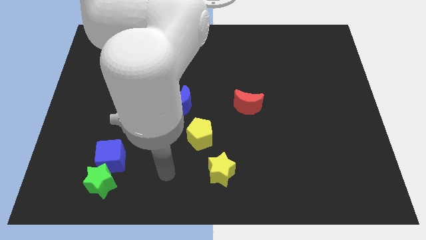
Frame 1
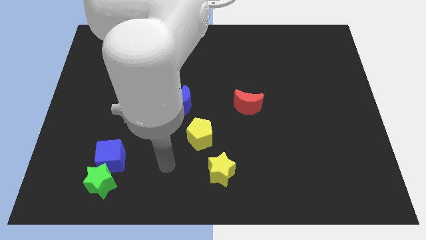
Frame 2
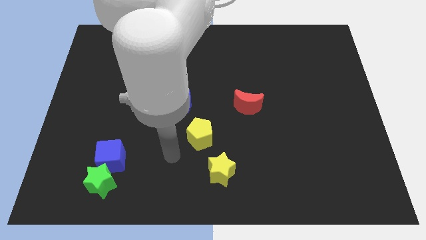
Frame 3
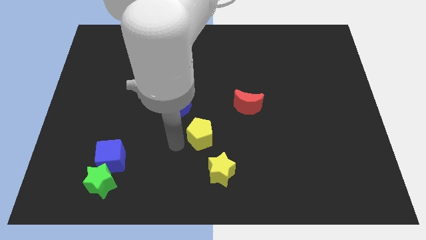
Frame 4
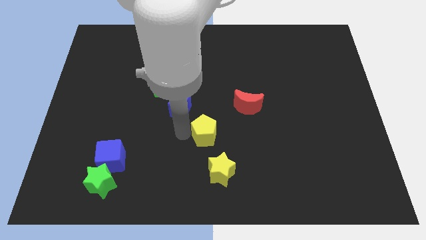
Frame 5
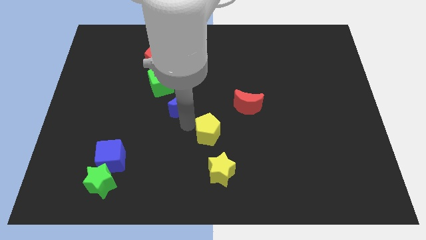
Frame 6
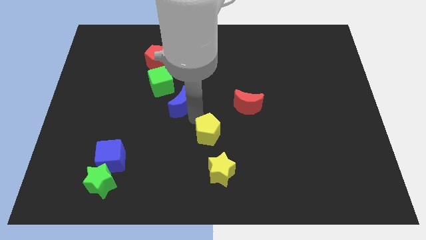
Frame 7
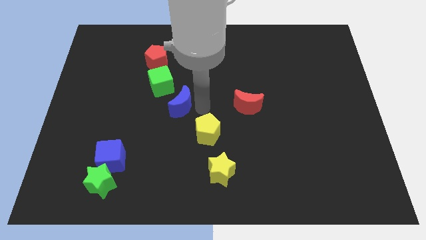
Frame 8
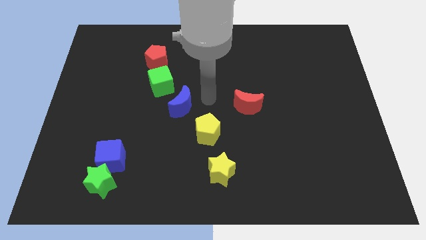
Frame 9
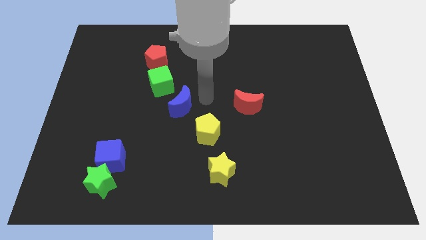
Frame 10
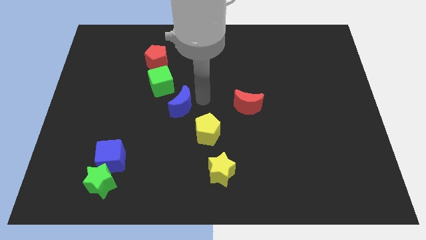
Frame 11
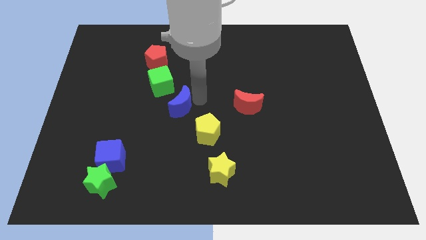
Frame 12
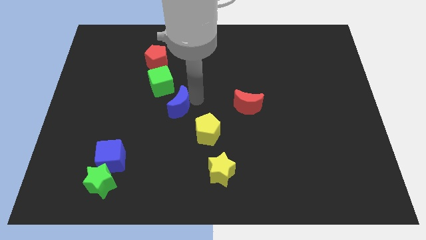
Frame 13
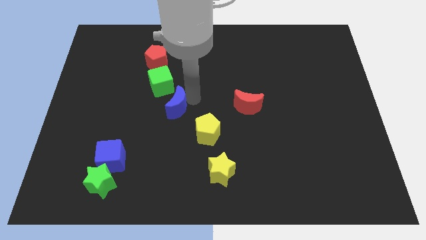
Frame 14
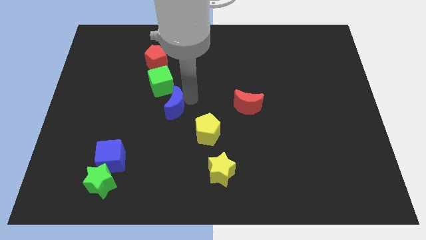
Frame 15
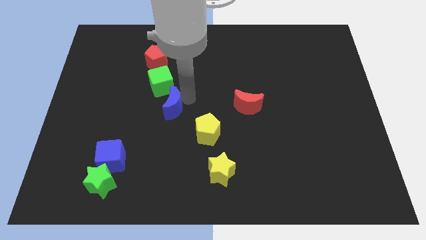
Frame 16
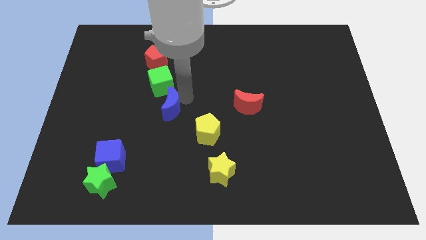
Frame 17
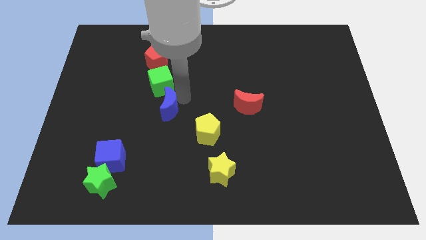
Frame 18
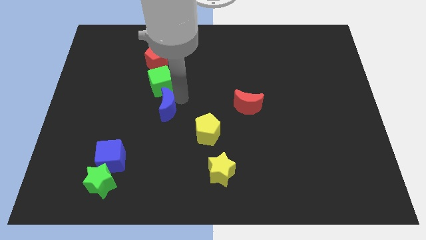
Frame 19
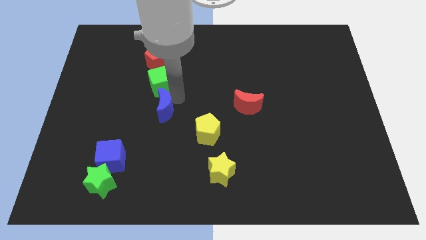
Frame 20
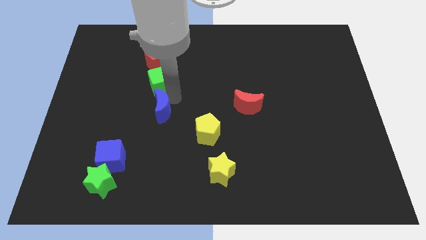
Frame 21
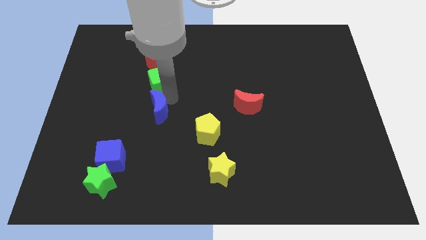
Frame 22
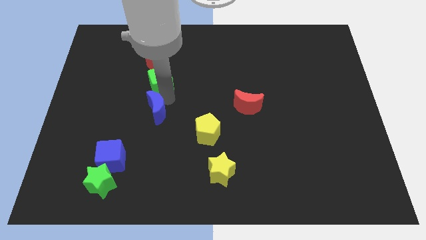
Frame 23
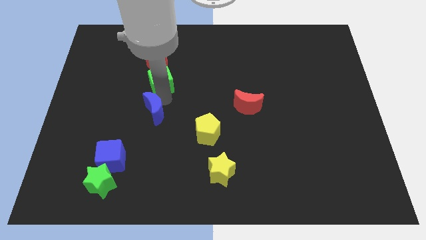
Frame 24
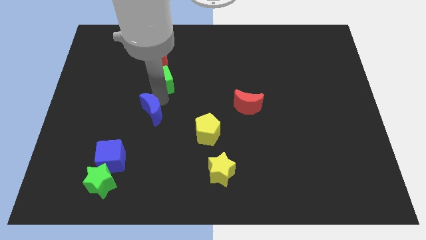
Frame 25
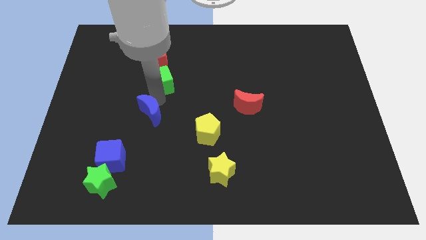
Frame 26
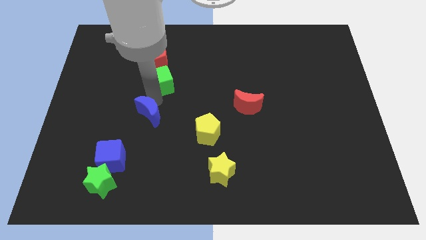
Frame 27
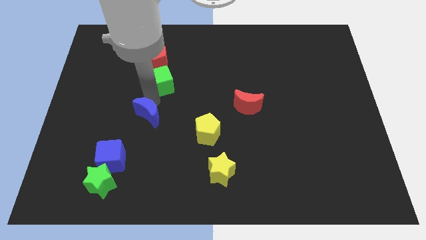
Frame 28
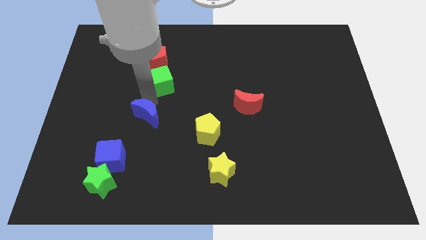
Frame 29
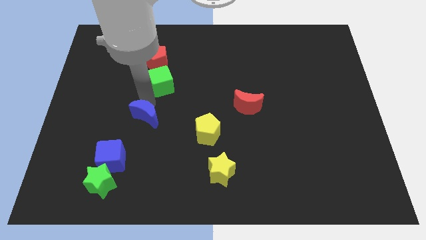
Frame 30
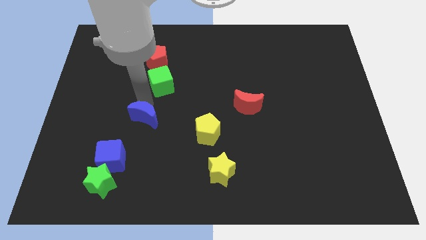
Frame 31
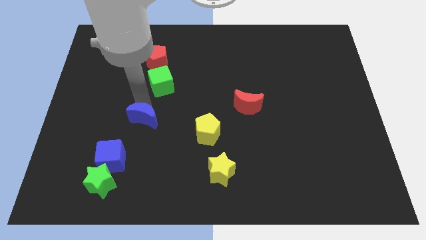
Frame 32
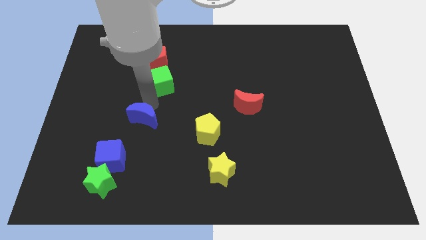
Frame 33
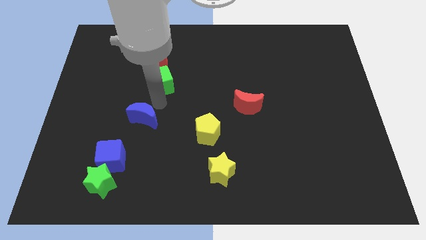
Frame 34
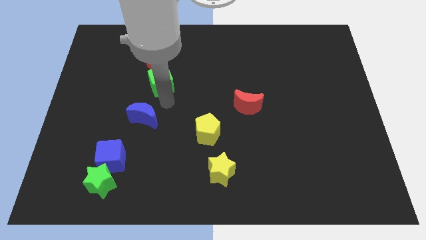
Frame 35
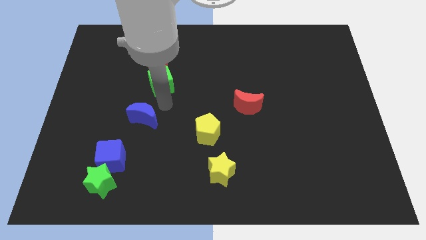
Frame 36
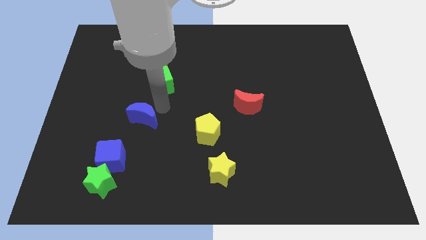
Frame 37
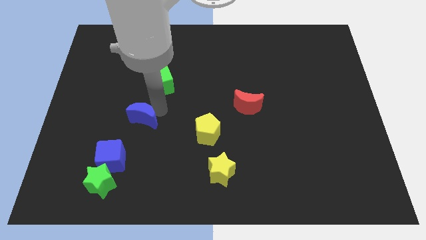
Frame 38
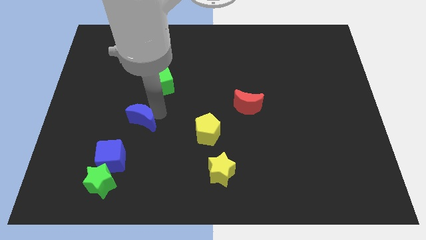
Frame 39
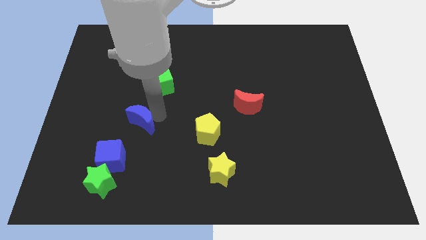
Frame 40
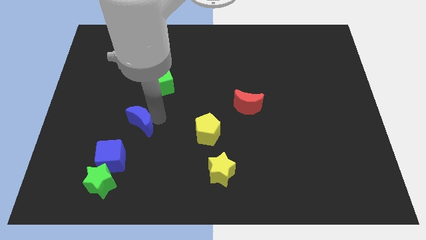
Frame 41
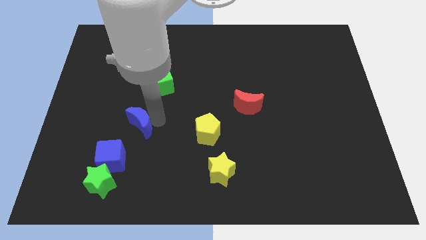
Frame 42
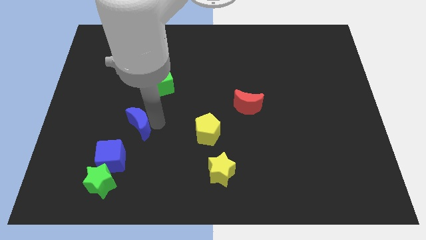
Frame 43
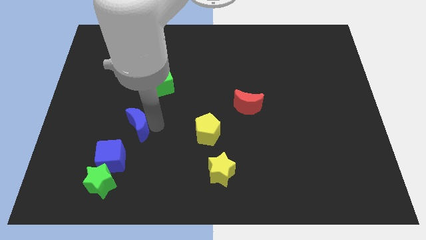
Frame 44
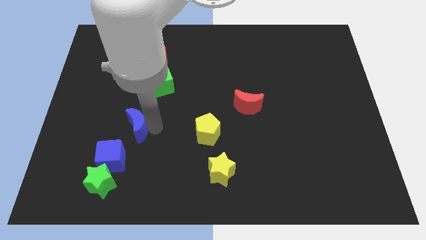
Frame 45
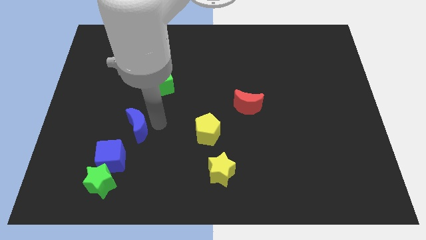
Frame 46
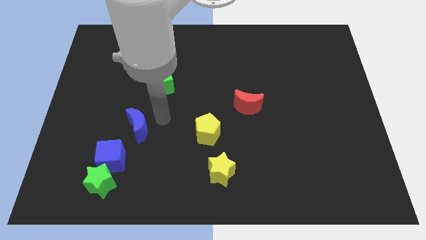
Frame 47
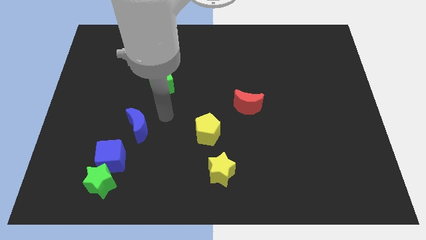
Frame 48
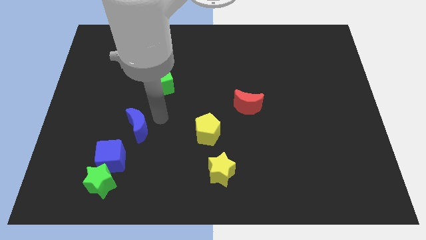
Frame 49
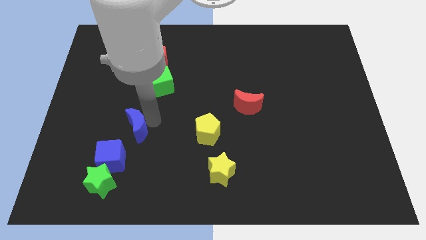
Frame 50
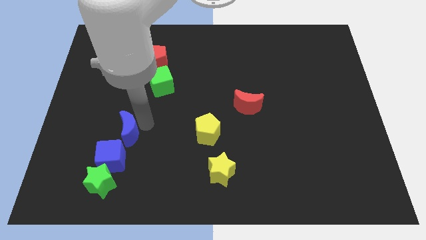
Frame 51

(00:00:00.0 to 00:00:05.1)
move the blue moon above the green star

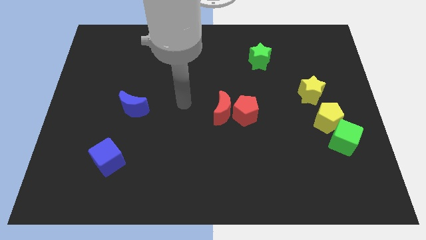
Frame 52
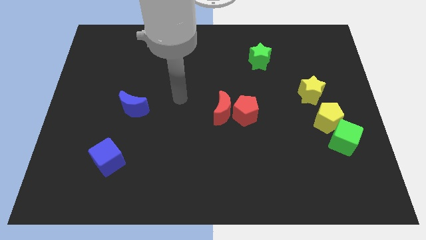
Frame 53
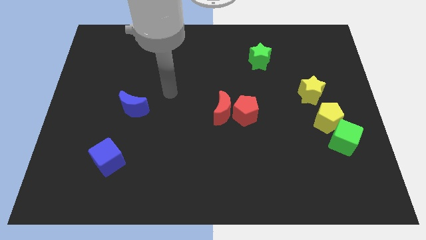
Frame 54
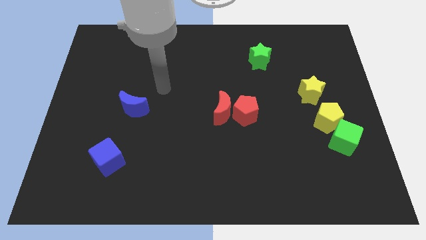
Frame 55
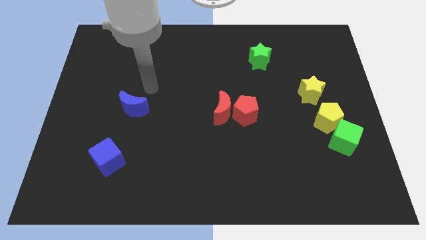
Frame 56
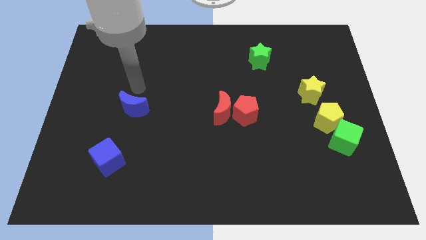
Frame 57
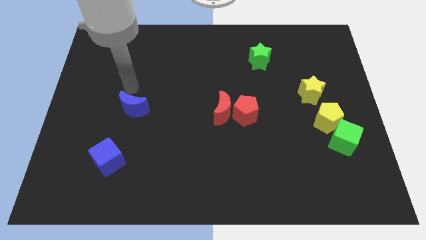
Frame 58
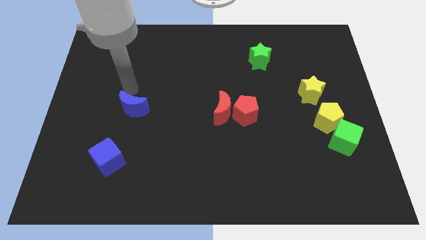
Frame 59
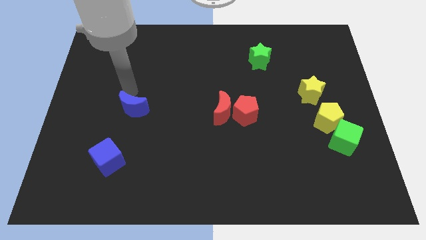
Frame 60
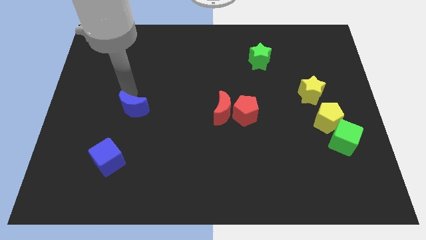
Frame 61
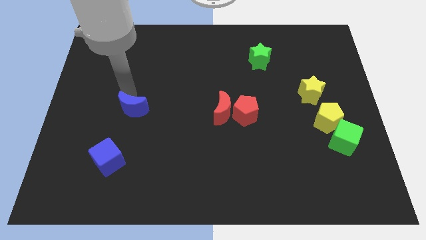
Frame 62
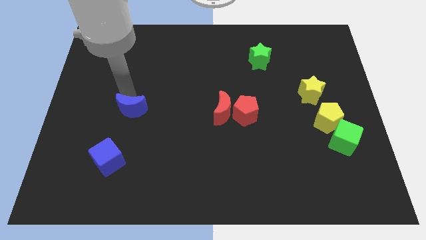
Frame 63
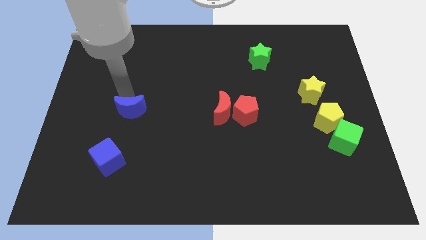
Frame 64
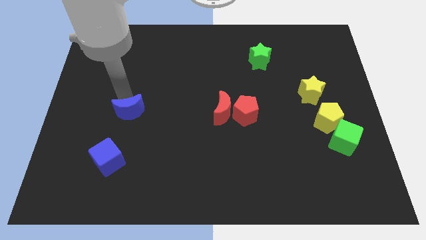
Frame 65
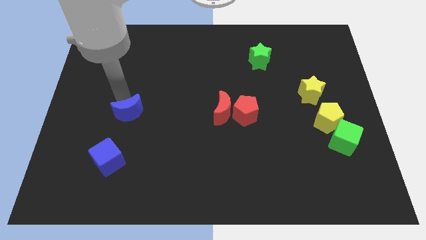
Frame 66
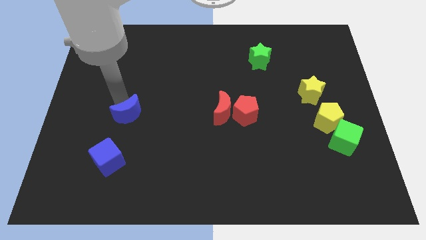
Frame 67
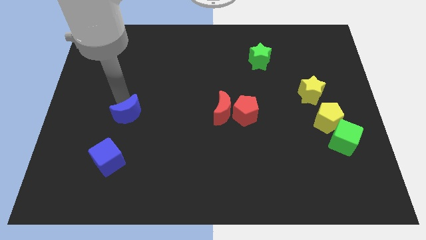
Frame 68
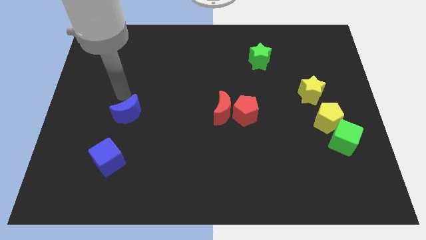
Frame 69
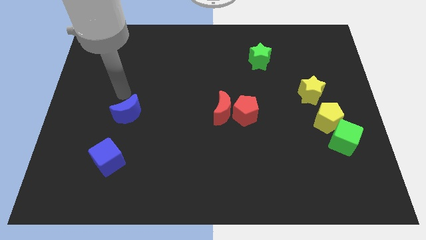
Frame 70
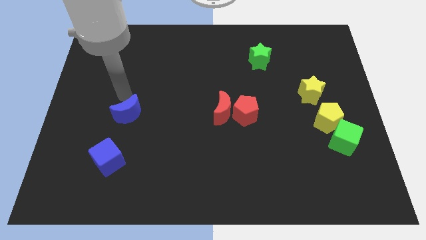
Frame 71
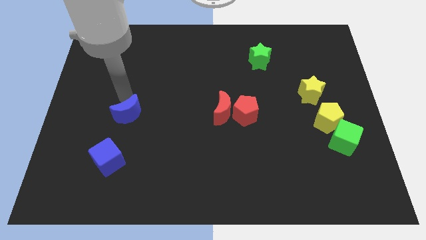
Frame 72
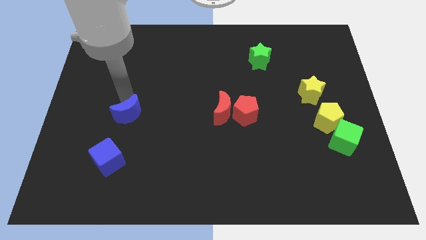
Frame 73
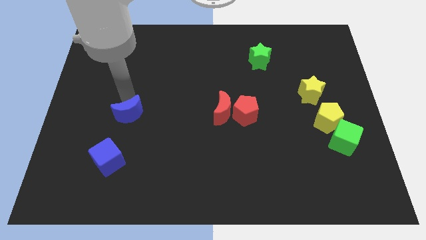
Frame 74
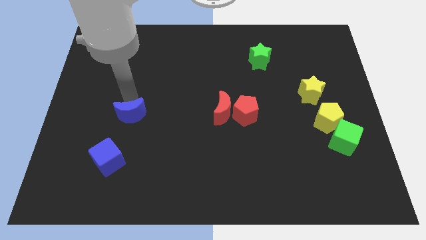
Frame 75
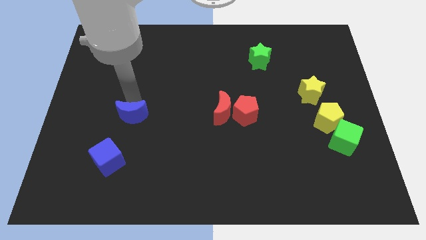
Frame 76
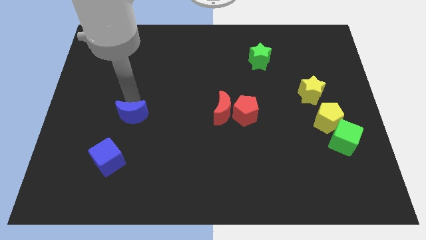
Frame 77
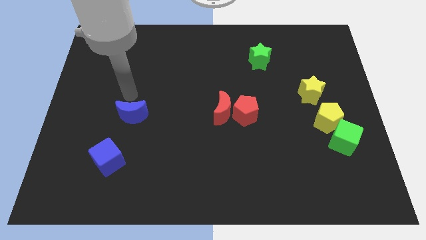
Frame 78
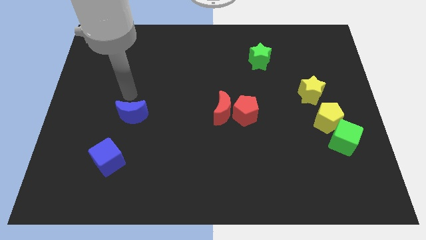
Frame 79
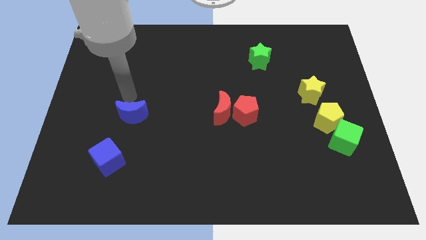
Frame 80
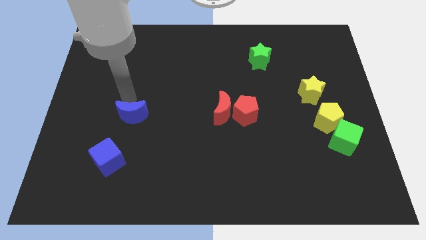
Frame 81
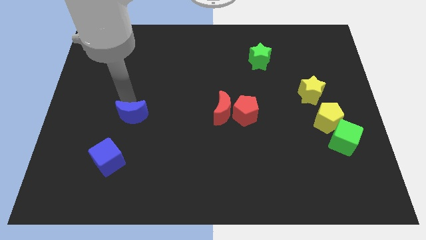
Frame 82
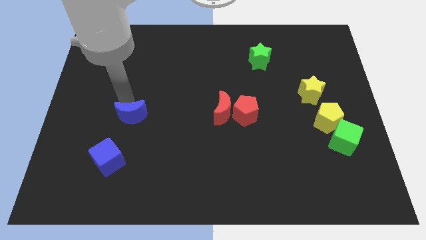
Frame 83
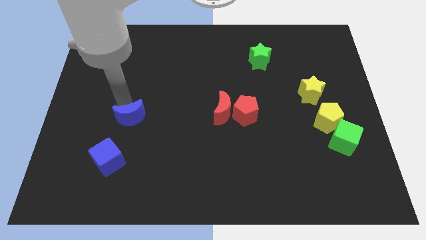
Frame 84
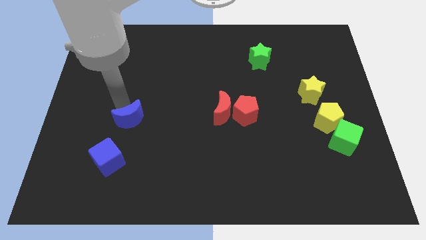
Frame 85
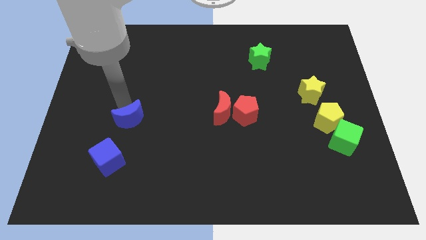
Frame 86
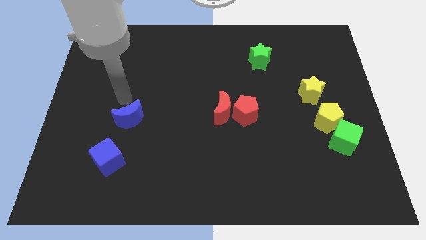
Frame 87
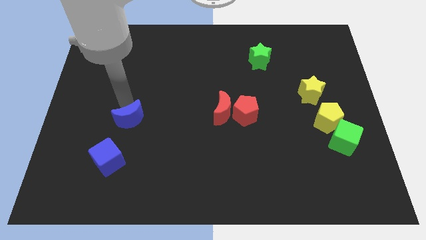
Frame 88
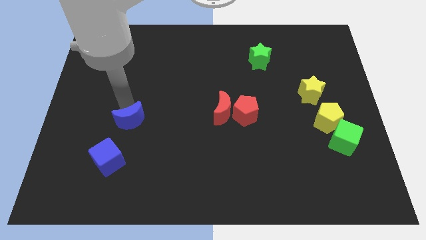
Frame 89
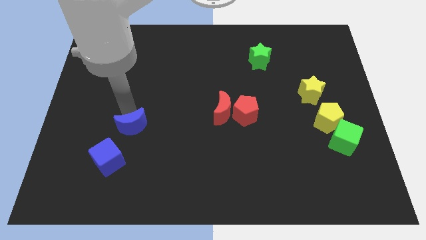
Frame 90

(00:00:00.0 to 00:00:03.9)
put the blue moon to the top right side of the blue cube
